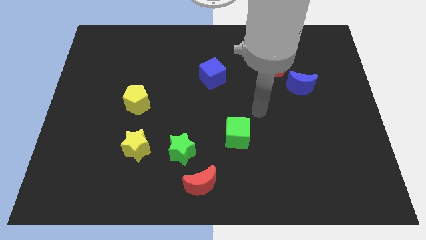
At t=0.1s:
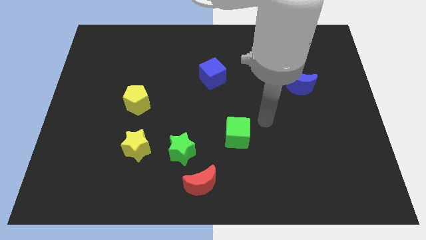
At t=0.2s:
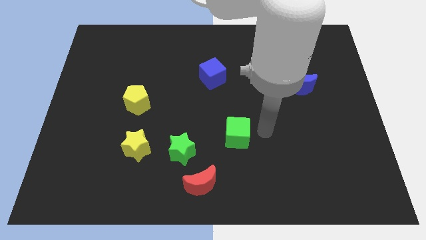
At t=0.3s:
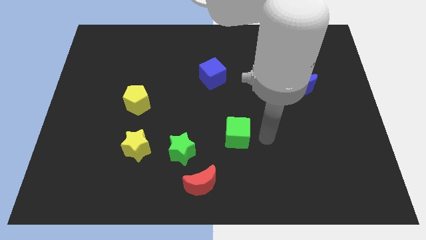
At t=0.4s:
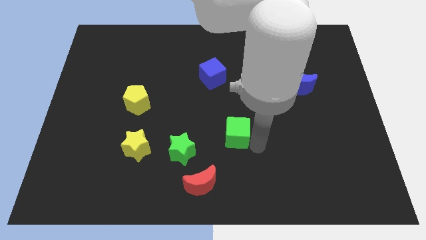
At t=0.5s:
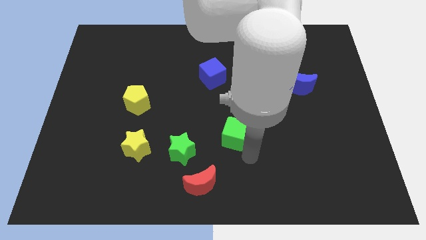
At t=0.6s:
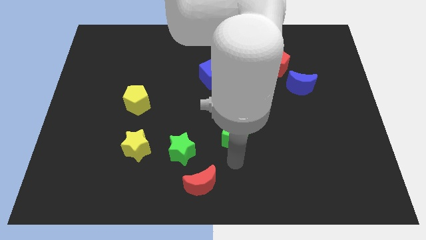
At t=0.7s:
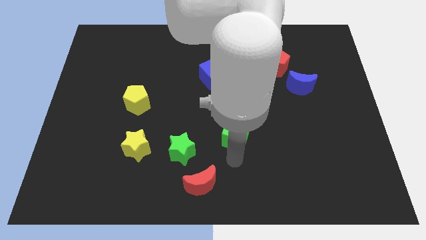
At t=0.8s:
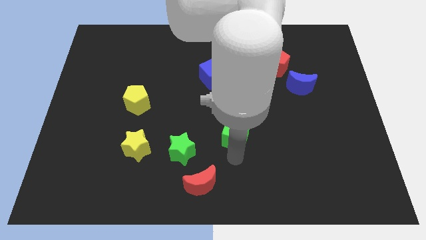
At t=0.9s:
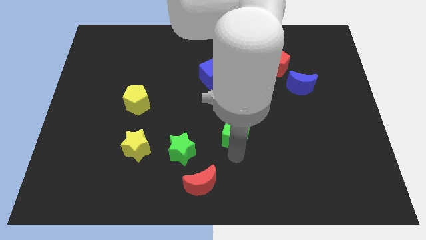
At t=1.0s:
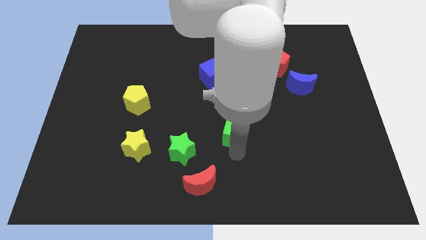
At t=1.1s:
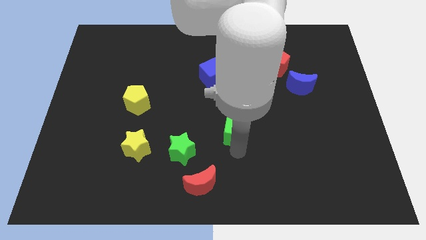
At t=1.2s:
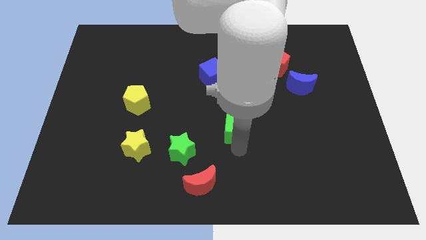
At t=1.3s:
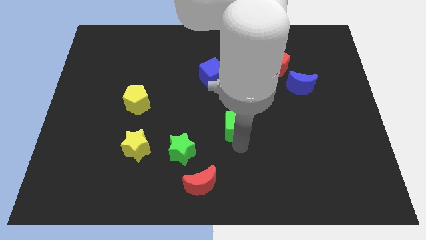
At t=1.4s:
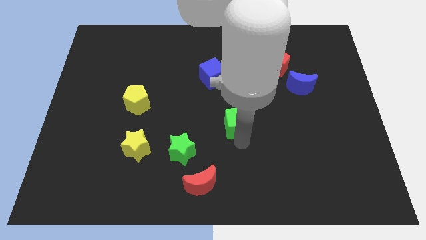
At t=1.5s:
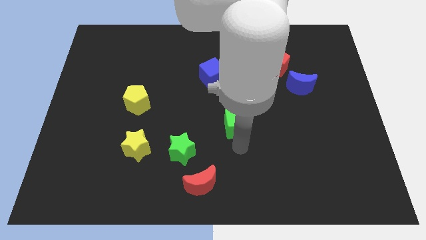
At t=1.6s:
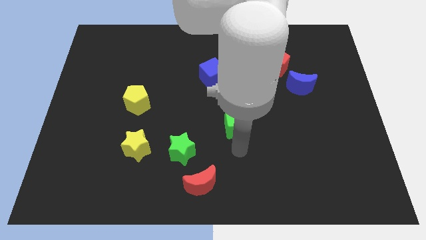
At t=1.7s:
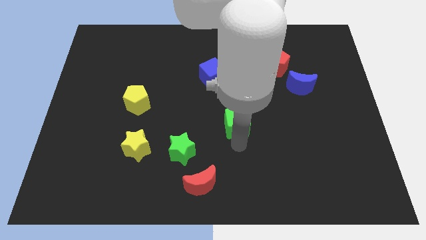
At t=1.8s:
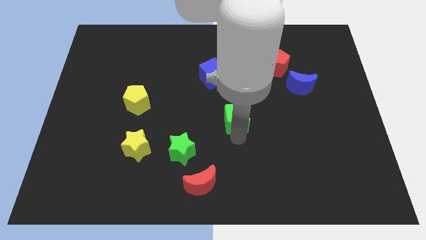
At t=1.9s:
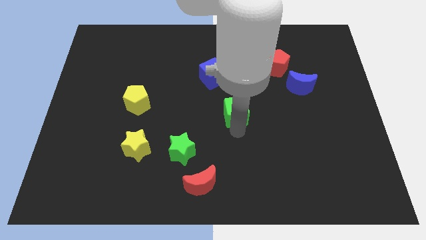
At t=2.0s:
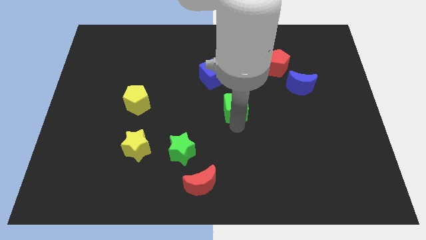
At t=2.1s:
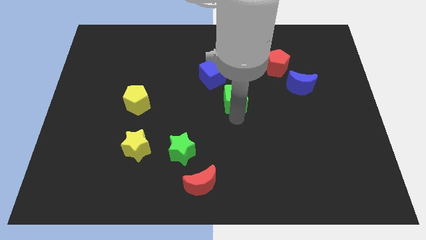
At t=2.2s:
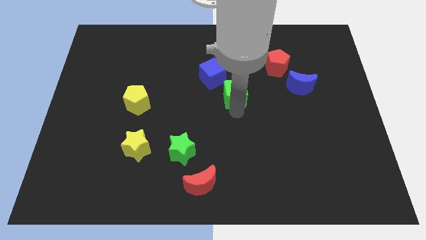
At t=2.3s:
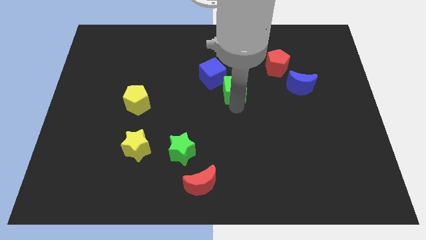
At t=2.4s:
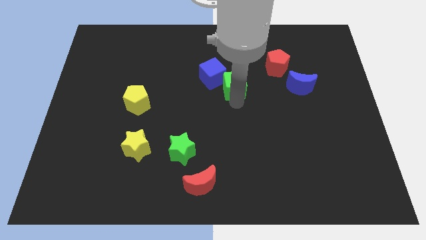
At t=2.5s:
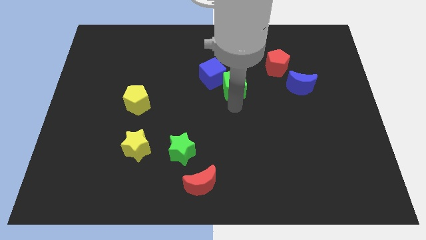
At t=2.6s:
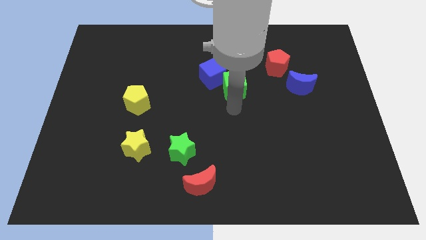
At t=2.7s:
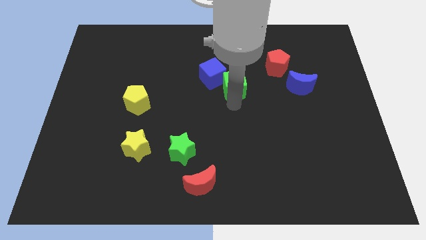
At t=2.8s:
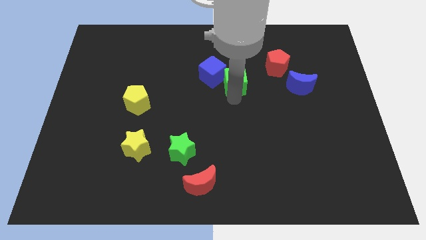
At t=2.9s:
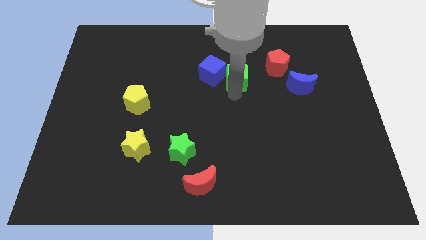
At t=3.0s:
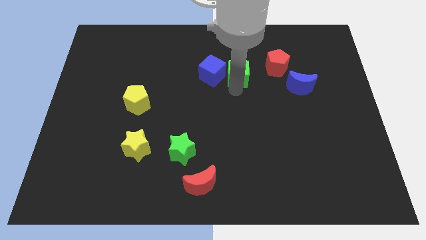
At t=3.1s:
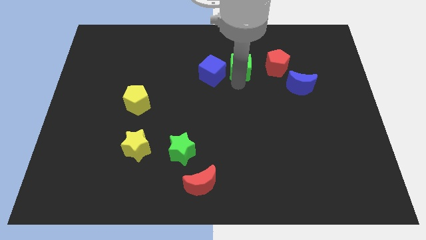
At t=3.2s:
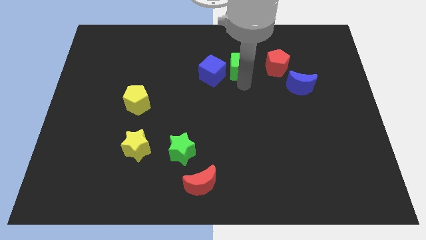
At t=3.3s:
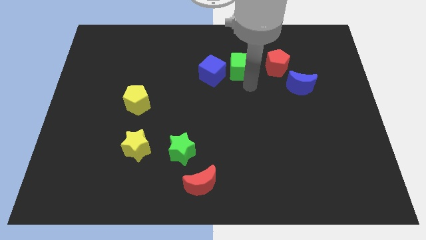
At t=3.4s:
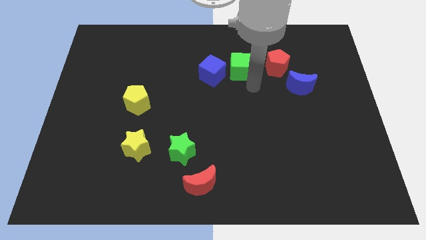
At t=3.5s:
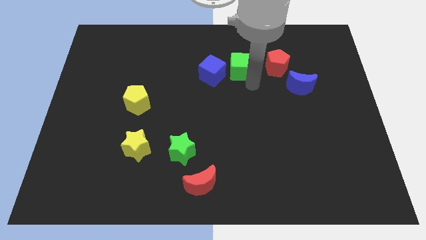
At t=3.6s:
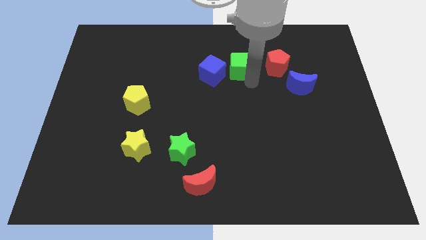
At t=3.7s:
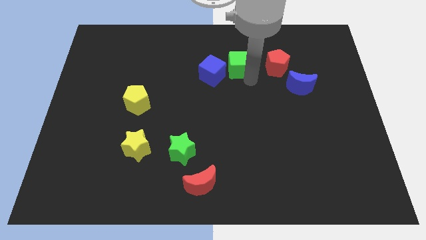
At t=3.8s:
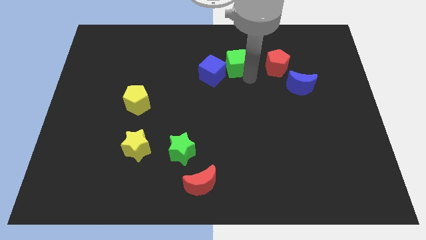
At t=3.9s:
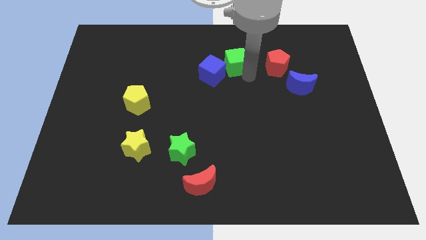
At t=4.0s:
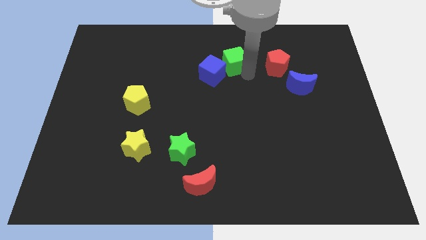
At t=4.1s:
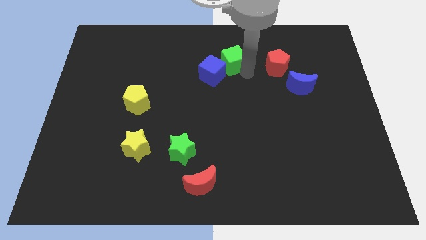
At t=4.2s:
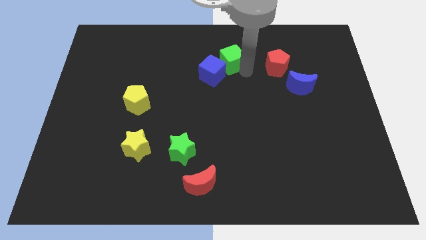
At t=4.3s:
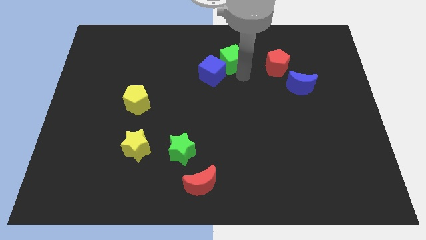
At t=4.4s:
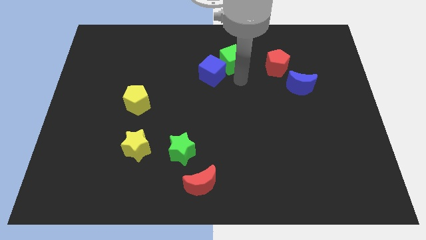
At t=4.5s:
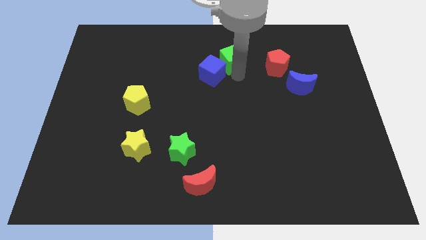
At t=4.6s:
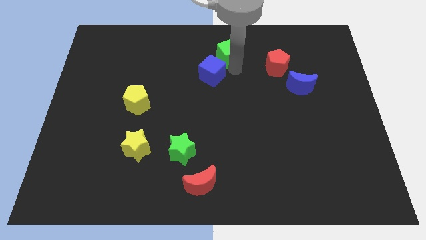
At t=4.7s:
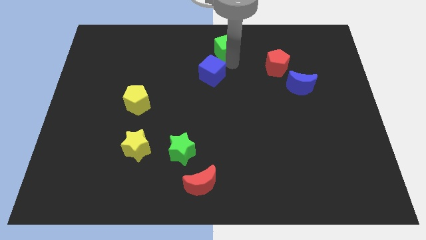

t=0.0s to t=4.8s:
slide the green cube to the top side

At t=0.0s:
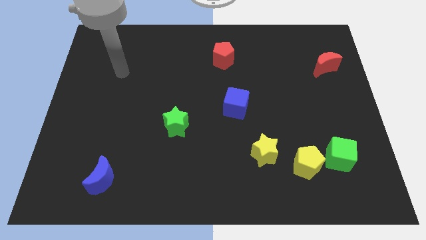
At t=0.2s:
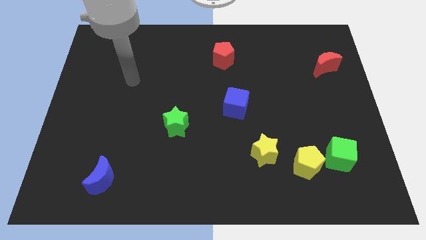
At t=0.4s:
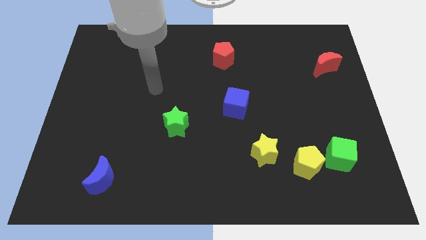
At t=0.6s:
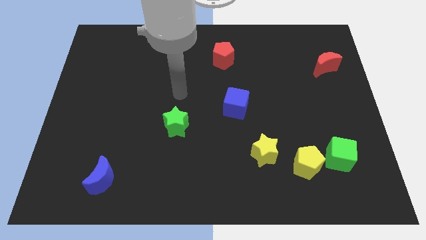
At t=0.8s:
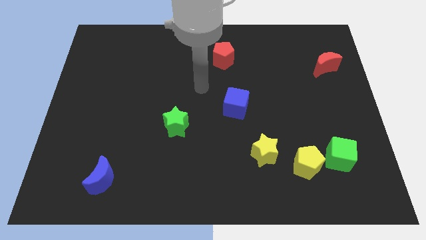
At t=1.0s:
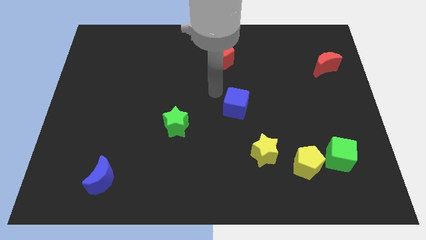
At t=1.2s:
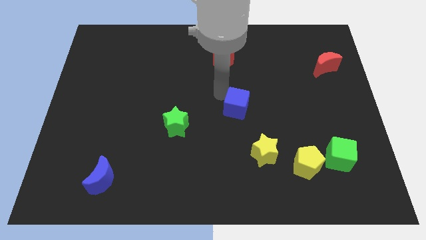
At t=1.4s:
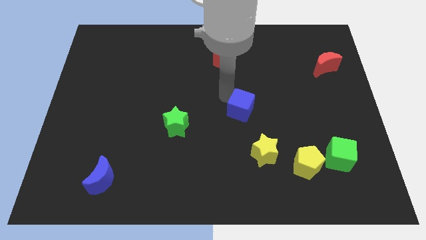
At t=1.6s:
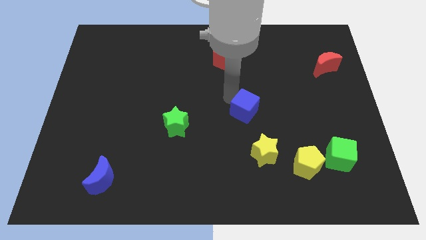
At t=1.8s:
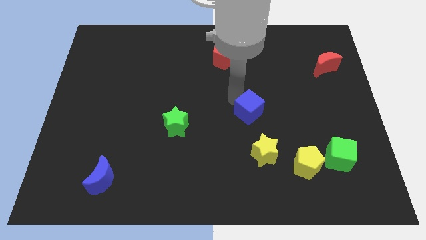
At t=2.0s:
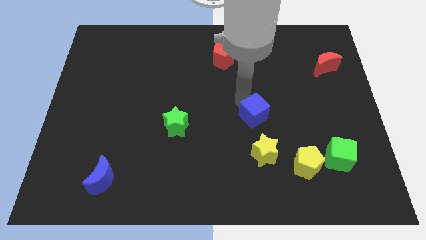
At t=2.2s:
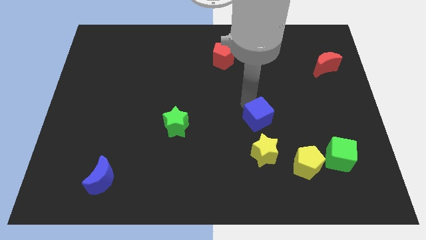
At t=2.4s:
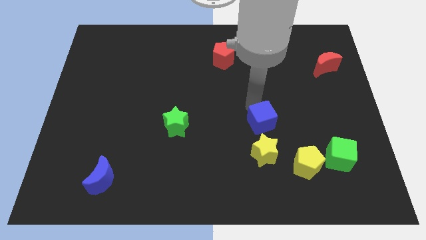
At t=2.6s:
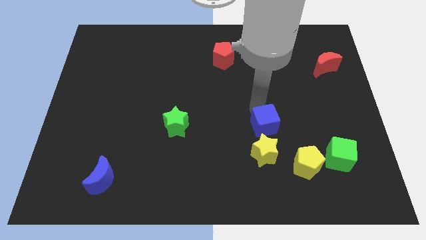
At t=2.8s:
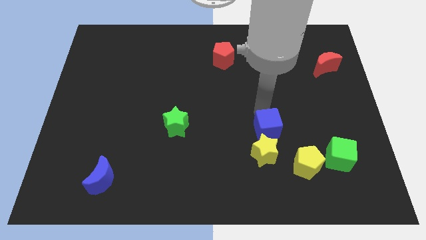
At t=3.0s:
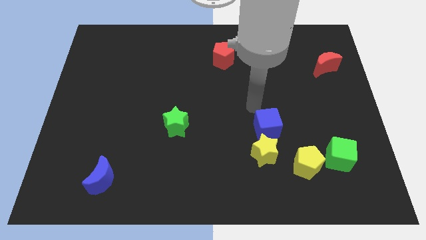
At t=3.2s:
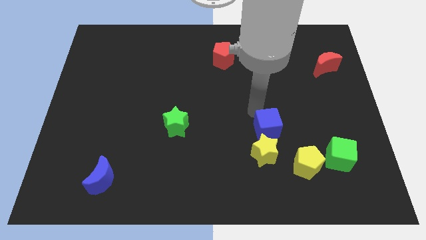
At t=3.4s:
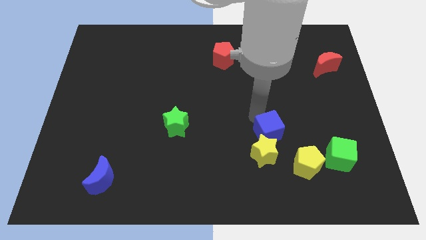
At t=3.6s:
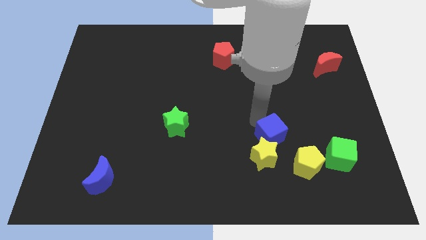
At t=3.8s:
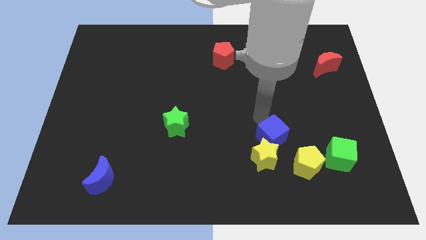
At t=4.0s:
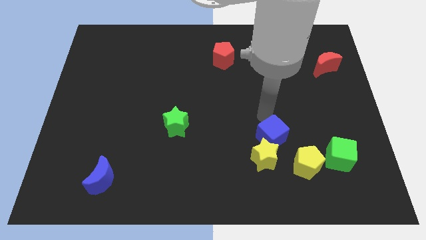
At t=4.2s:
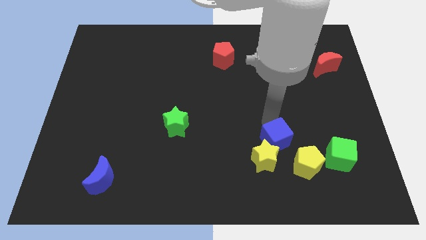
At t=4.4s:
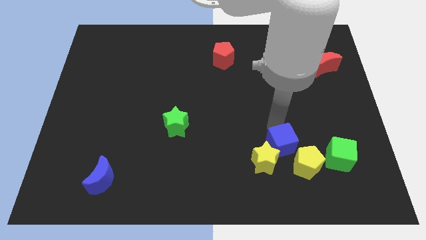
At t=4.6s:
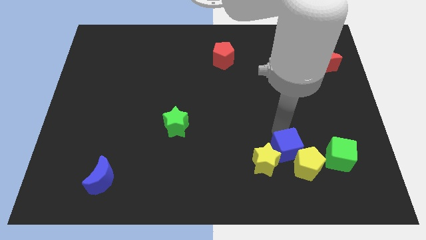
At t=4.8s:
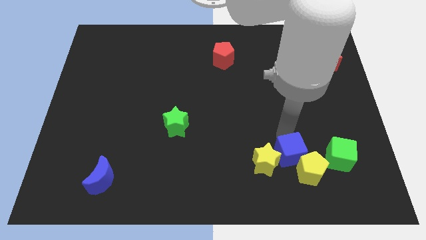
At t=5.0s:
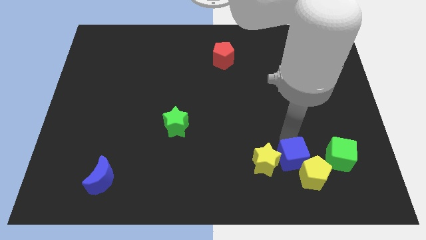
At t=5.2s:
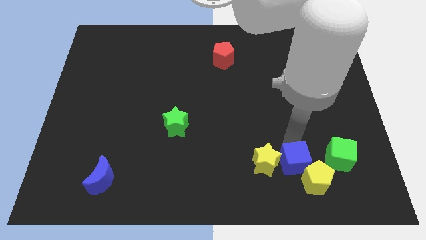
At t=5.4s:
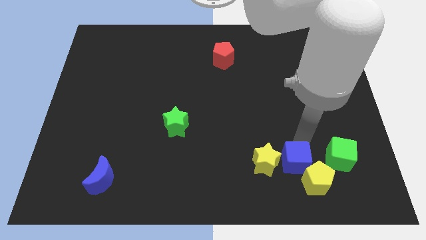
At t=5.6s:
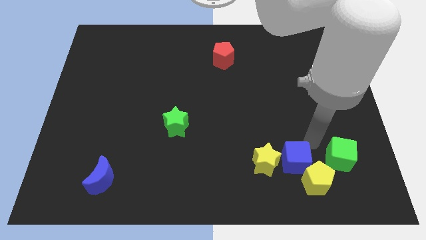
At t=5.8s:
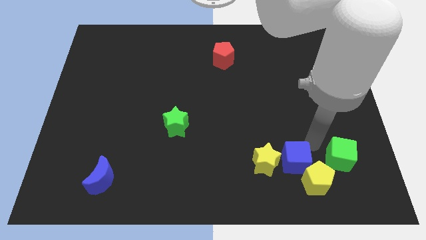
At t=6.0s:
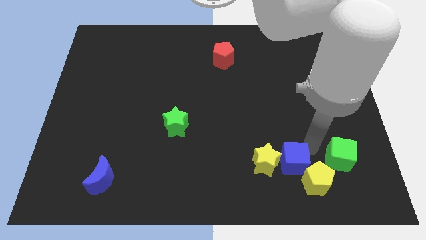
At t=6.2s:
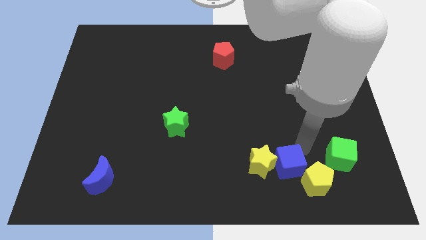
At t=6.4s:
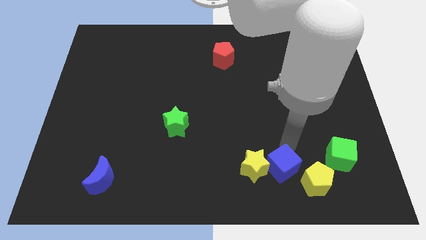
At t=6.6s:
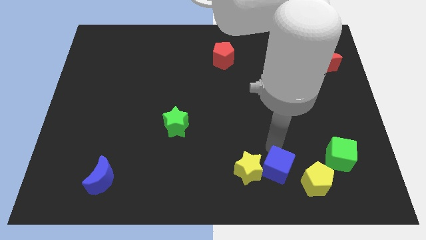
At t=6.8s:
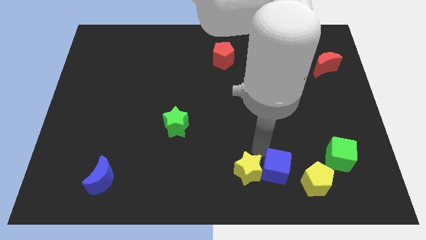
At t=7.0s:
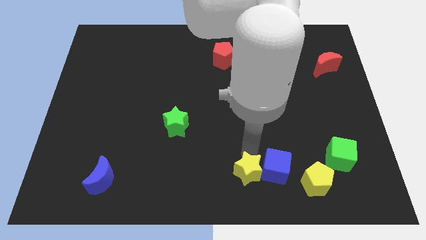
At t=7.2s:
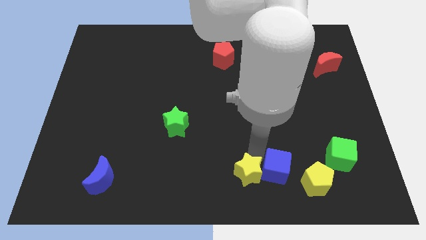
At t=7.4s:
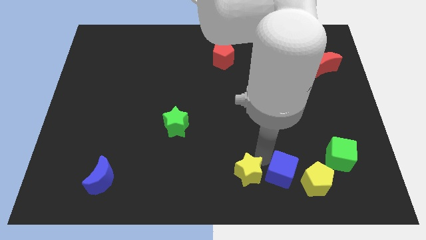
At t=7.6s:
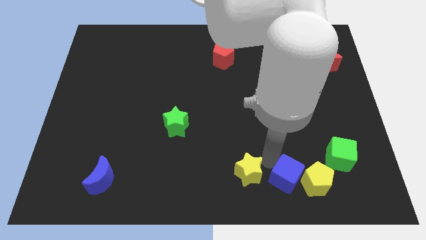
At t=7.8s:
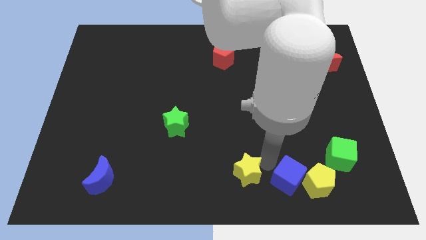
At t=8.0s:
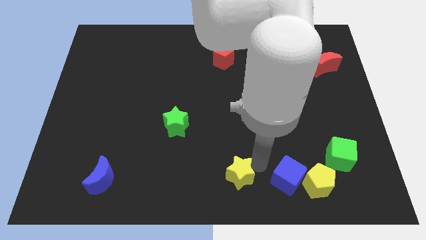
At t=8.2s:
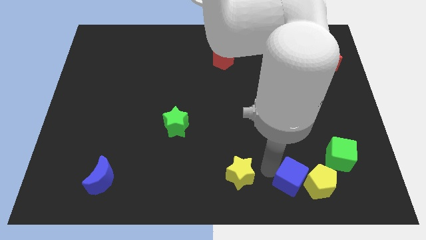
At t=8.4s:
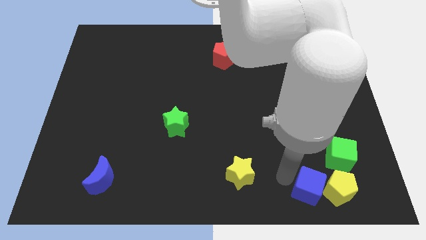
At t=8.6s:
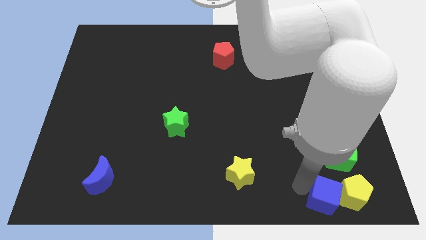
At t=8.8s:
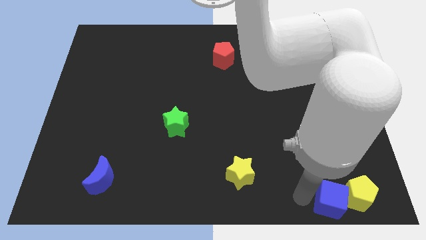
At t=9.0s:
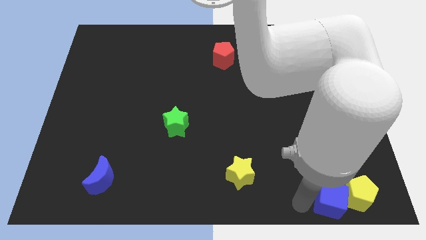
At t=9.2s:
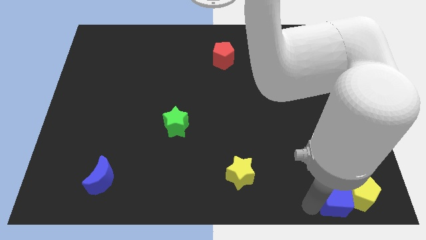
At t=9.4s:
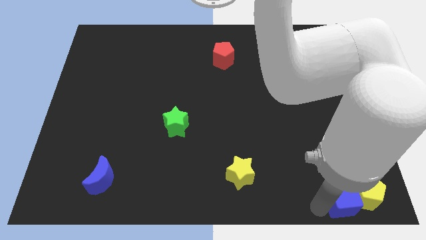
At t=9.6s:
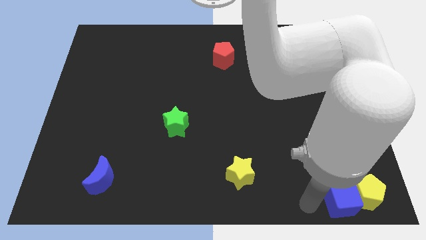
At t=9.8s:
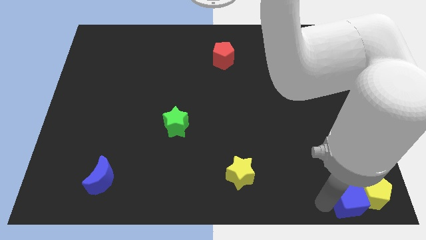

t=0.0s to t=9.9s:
put the blue cube to the bottom right of the board
